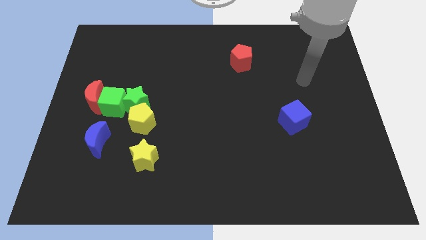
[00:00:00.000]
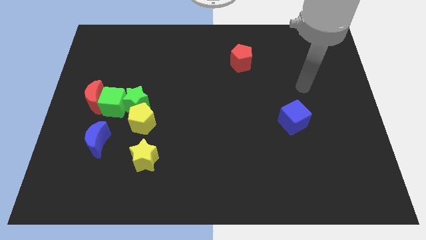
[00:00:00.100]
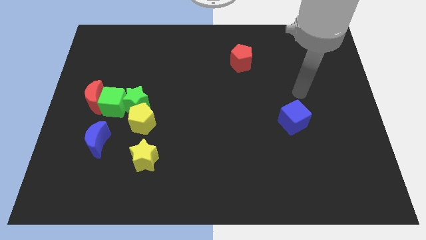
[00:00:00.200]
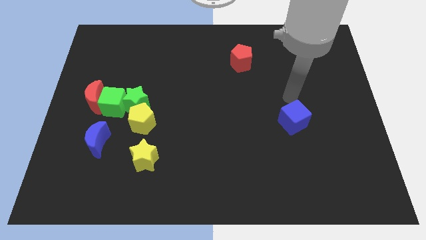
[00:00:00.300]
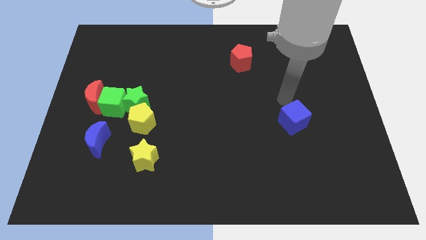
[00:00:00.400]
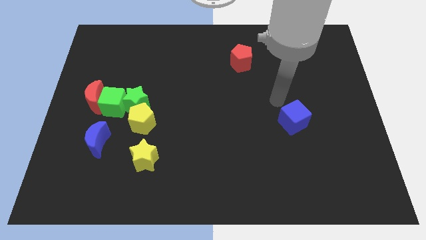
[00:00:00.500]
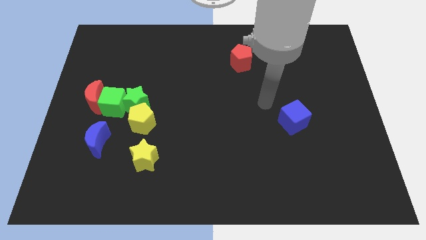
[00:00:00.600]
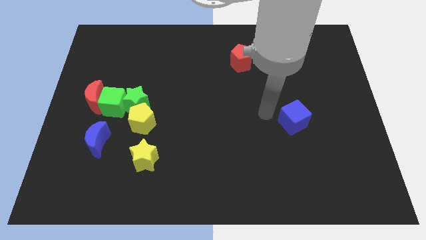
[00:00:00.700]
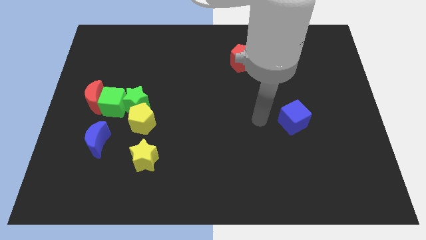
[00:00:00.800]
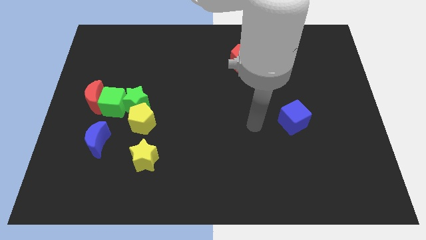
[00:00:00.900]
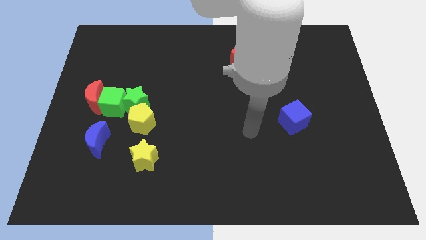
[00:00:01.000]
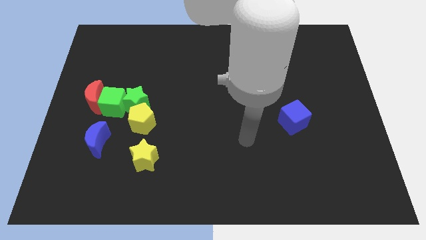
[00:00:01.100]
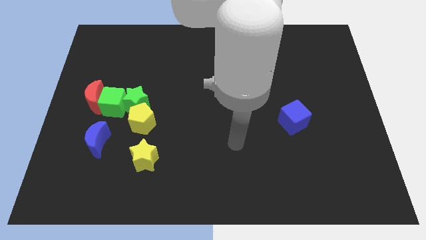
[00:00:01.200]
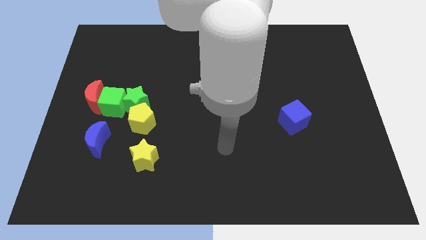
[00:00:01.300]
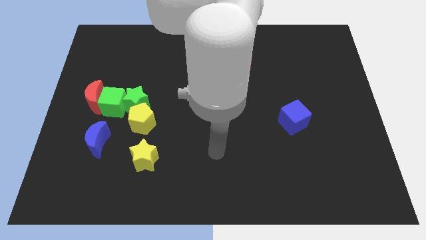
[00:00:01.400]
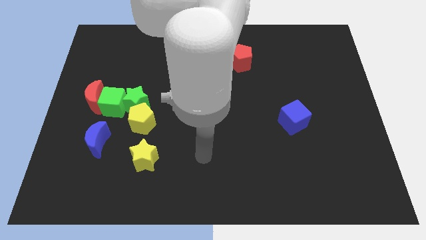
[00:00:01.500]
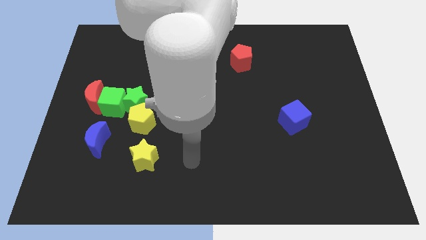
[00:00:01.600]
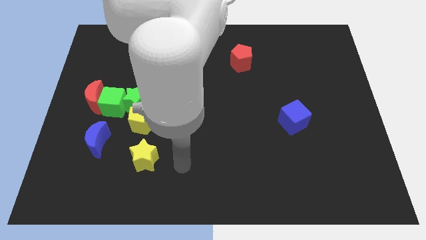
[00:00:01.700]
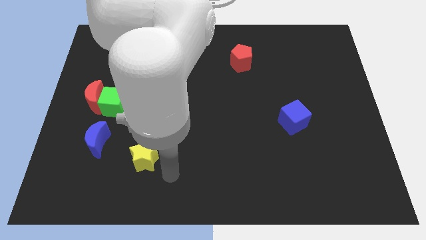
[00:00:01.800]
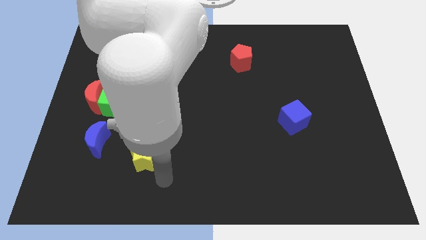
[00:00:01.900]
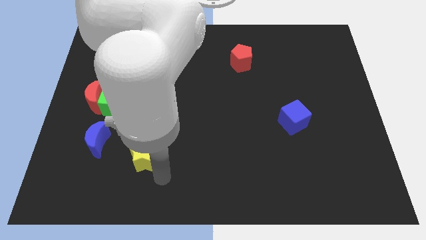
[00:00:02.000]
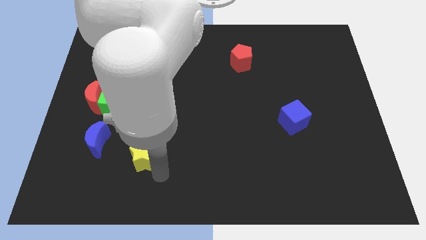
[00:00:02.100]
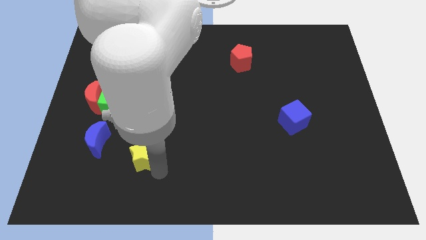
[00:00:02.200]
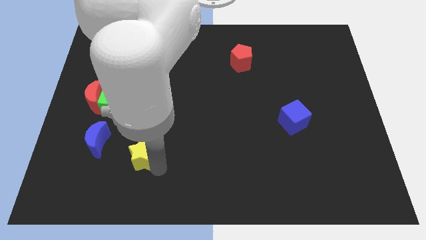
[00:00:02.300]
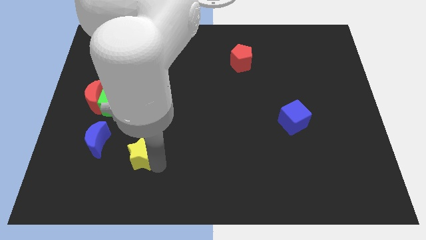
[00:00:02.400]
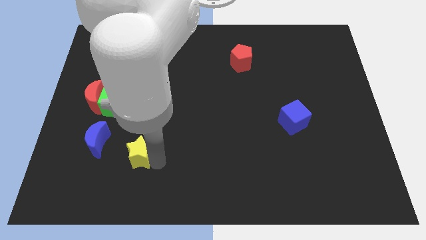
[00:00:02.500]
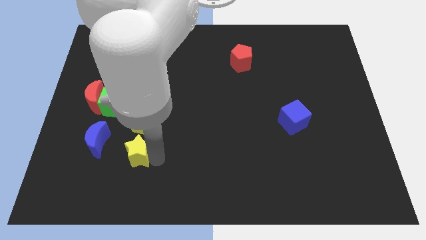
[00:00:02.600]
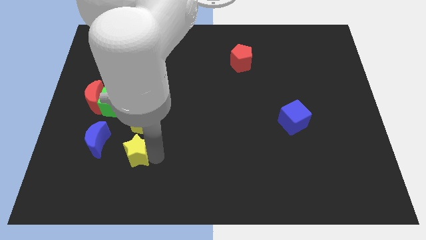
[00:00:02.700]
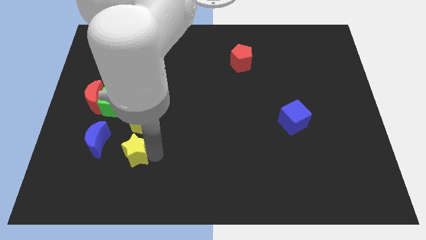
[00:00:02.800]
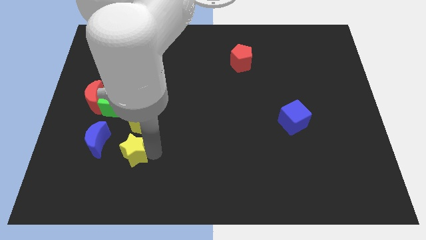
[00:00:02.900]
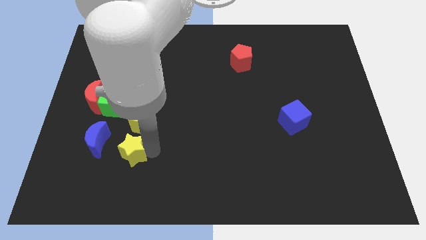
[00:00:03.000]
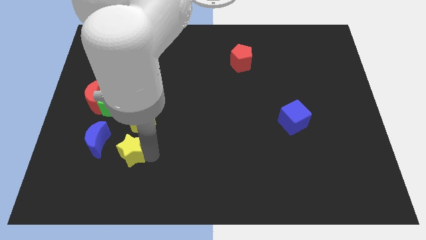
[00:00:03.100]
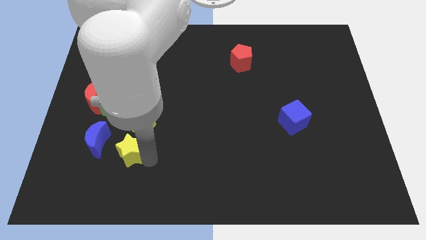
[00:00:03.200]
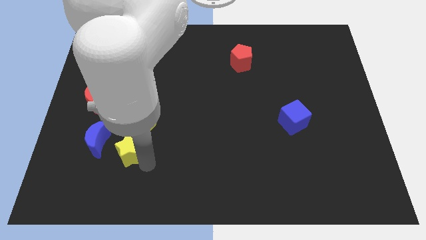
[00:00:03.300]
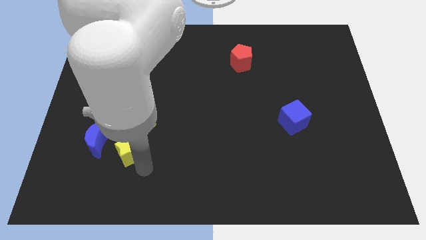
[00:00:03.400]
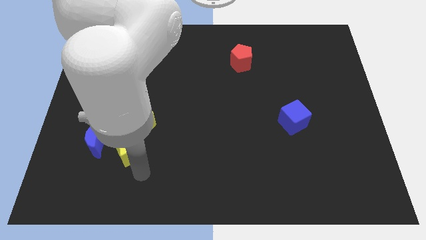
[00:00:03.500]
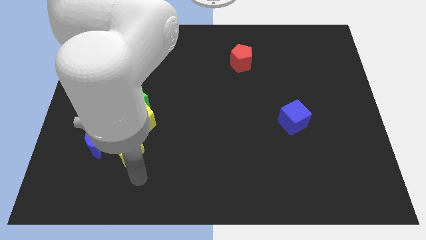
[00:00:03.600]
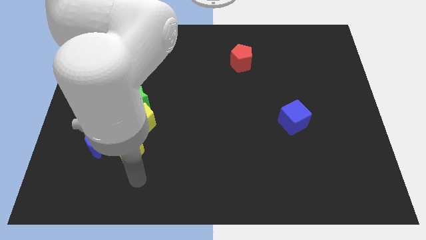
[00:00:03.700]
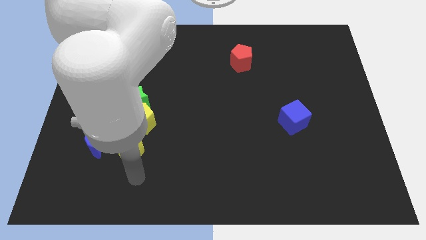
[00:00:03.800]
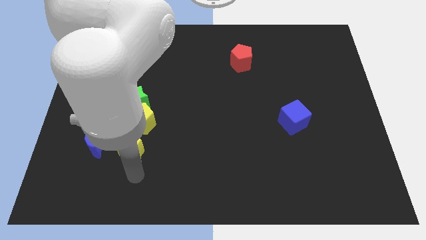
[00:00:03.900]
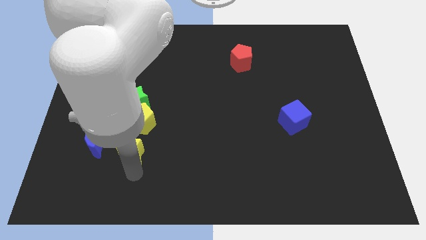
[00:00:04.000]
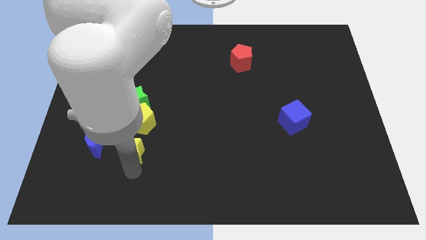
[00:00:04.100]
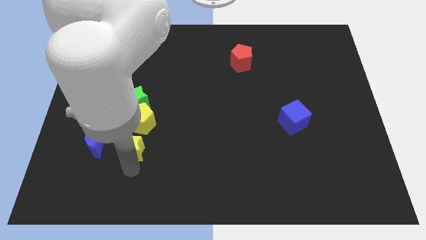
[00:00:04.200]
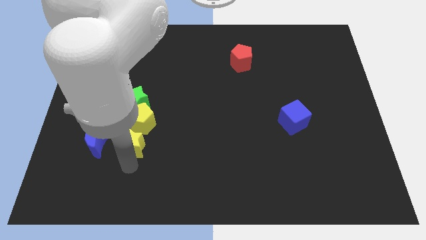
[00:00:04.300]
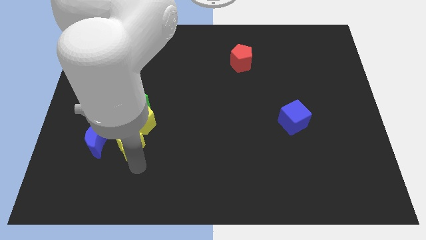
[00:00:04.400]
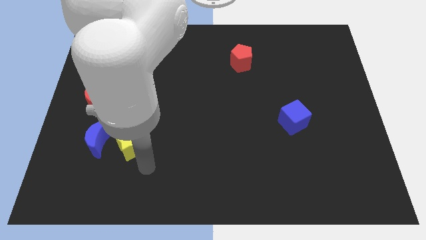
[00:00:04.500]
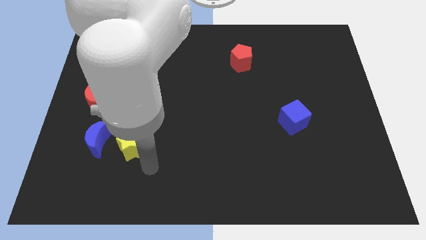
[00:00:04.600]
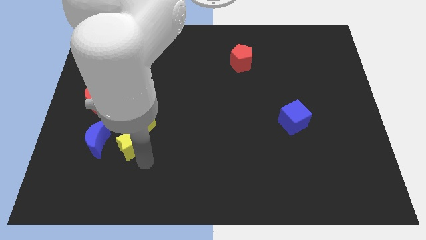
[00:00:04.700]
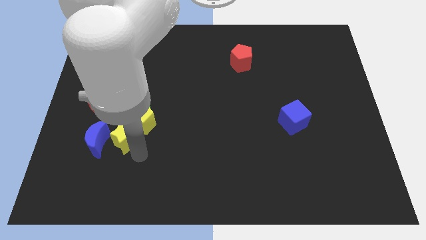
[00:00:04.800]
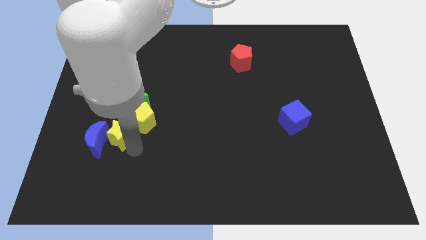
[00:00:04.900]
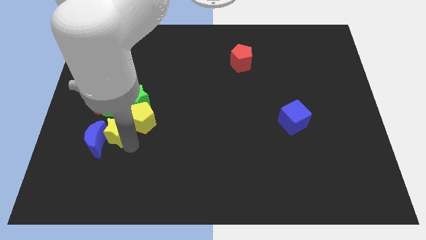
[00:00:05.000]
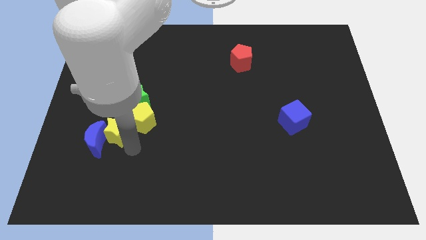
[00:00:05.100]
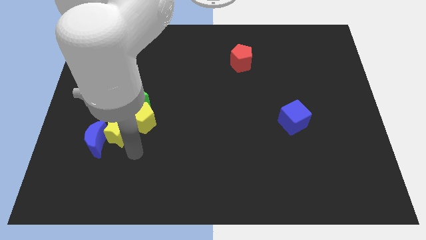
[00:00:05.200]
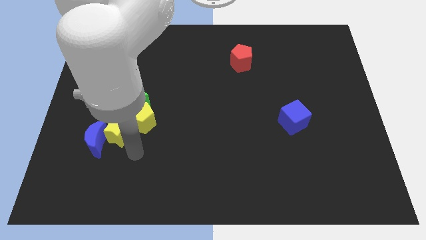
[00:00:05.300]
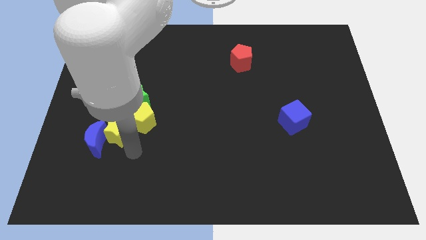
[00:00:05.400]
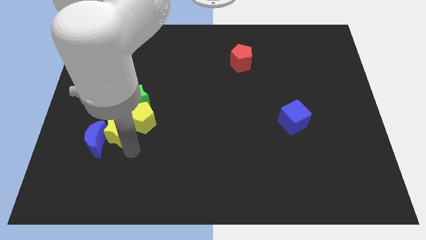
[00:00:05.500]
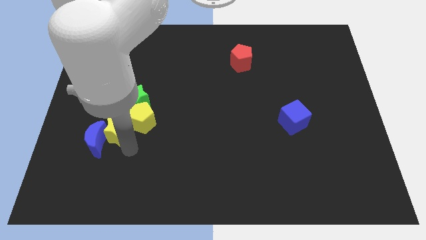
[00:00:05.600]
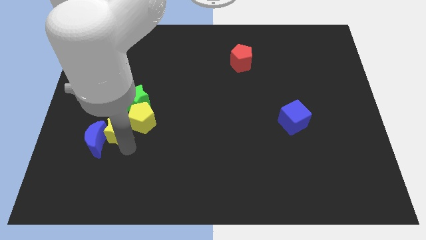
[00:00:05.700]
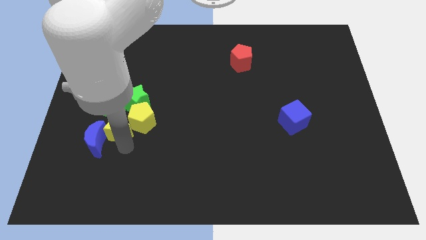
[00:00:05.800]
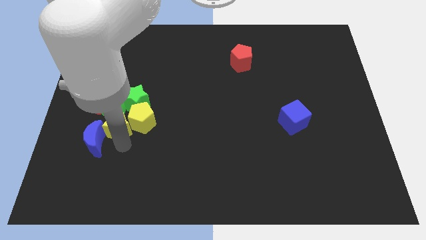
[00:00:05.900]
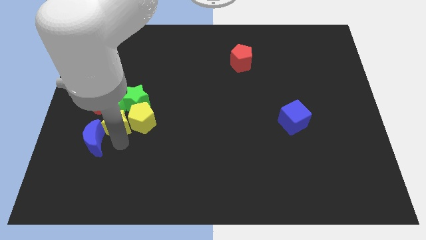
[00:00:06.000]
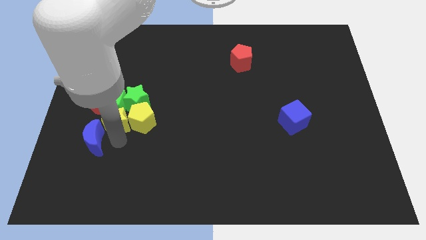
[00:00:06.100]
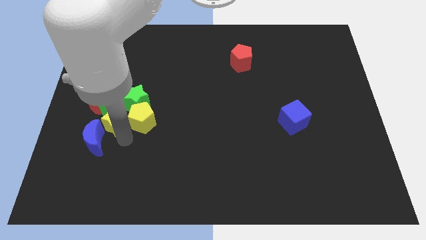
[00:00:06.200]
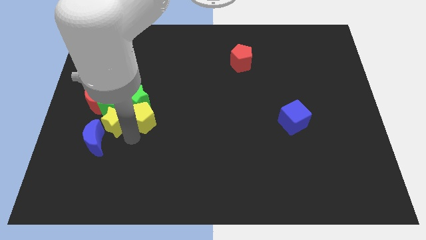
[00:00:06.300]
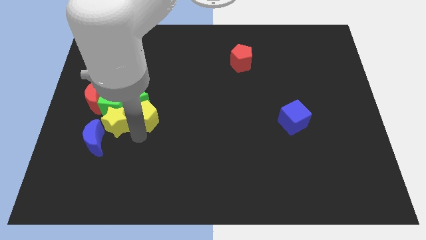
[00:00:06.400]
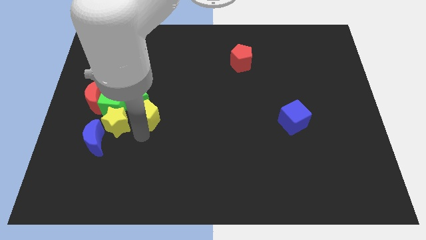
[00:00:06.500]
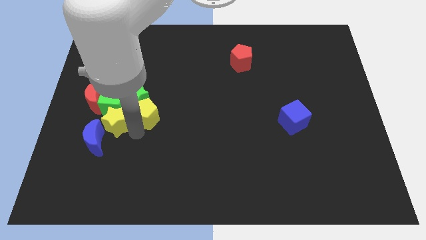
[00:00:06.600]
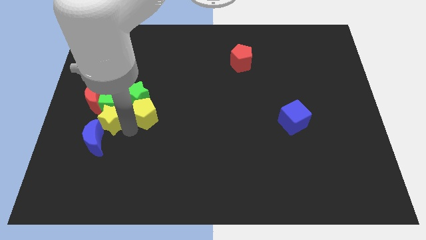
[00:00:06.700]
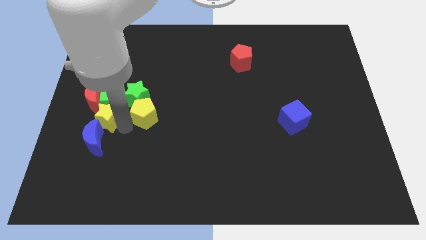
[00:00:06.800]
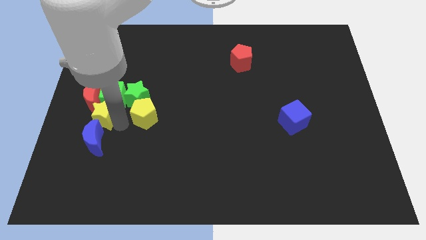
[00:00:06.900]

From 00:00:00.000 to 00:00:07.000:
put the yellow star next to the red moon

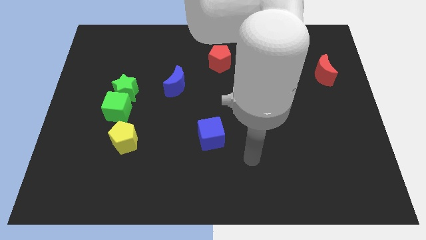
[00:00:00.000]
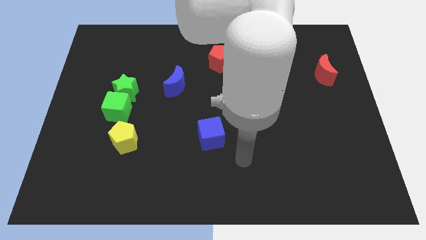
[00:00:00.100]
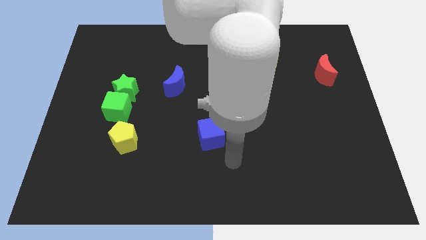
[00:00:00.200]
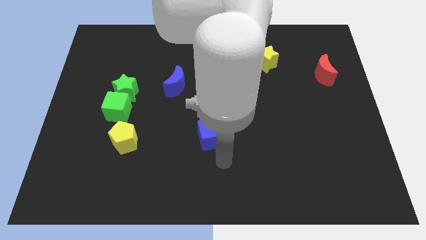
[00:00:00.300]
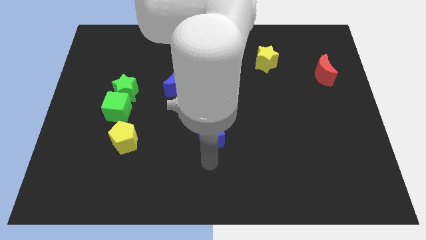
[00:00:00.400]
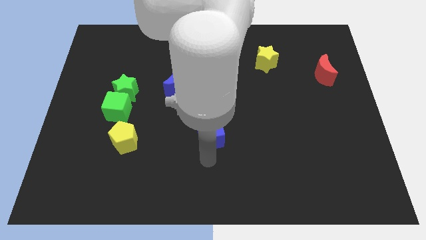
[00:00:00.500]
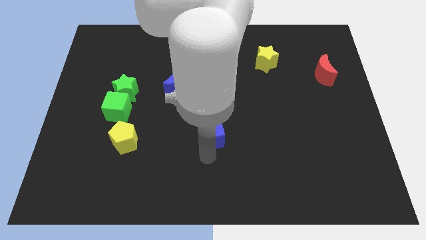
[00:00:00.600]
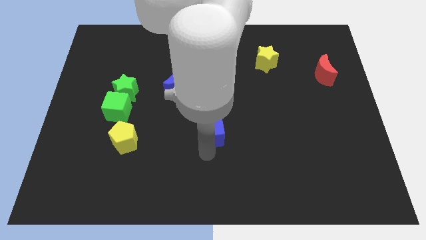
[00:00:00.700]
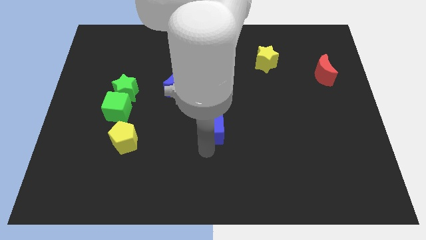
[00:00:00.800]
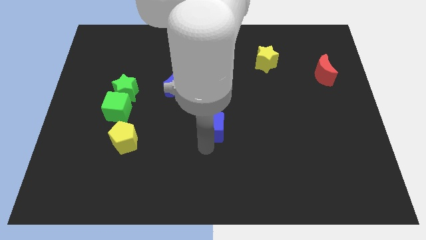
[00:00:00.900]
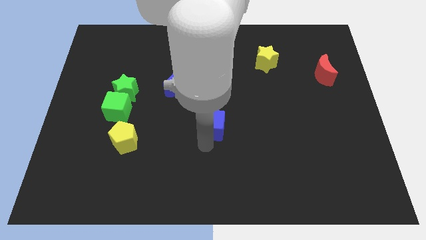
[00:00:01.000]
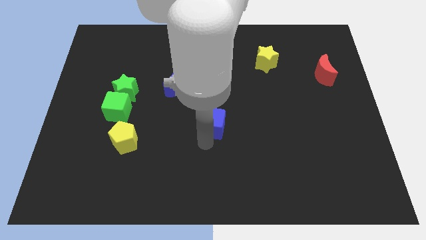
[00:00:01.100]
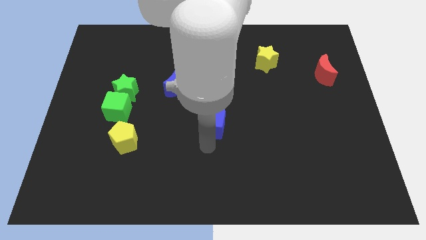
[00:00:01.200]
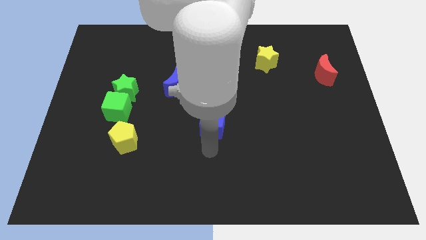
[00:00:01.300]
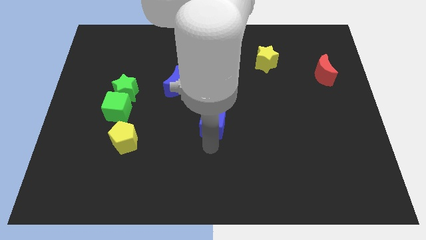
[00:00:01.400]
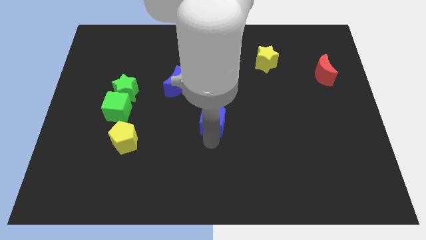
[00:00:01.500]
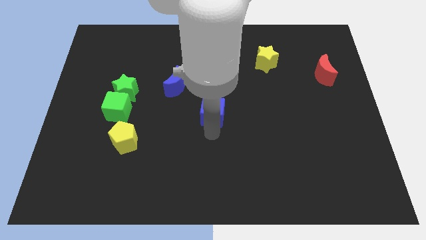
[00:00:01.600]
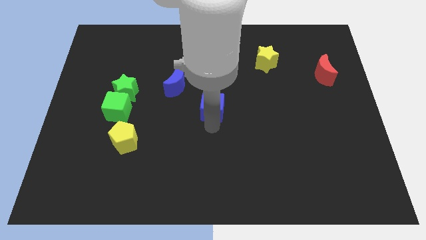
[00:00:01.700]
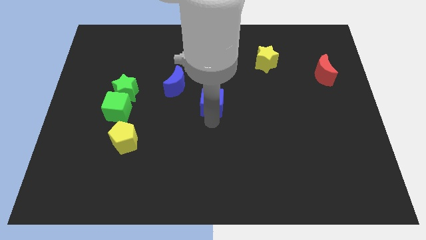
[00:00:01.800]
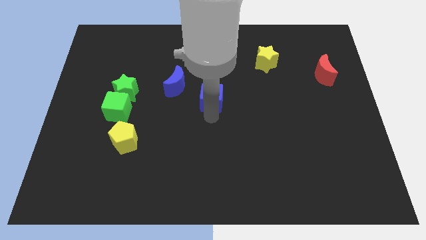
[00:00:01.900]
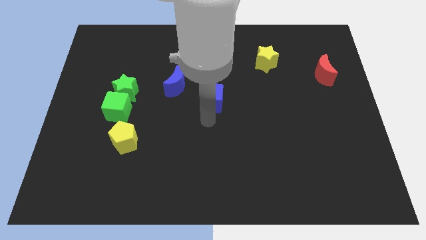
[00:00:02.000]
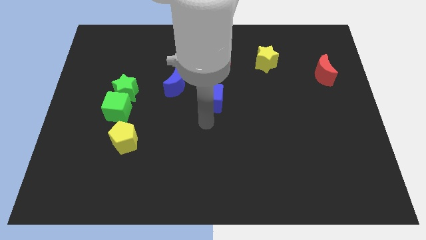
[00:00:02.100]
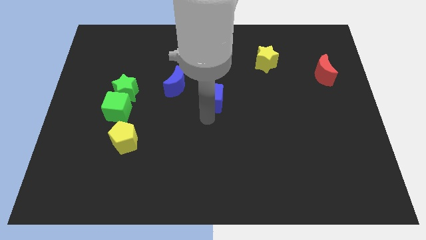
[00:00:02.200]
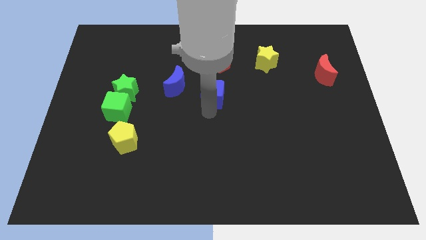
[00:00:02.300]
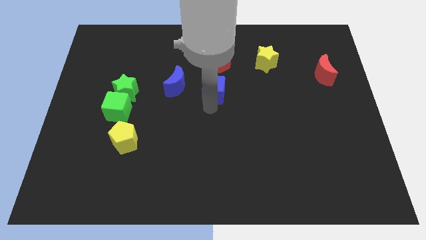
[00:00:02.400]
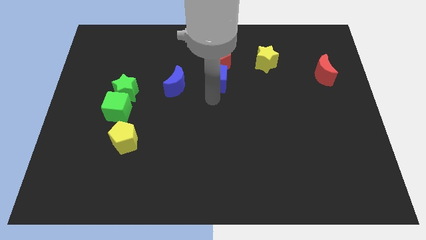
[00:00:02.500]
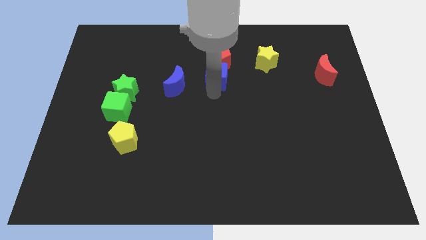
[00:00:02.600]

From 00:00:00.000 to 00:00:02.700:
move the blue cube close to the red pentagon
